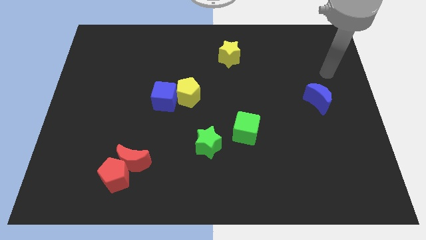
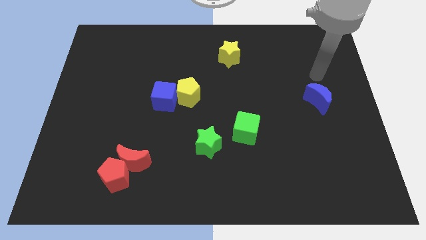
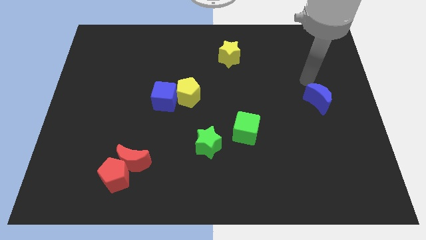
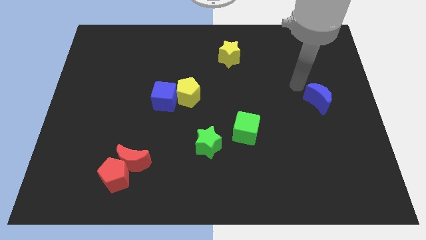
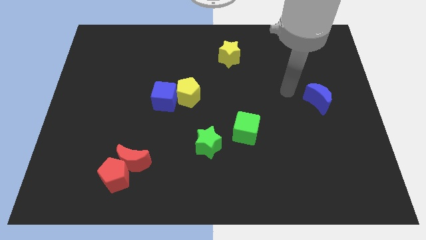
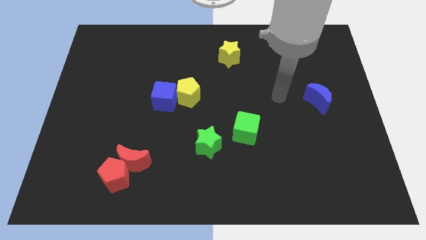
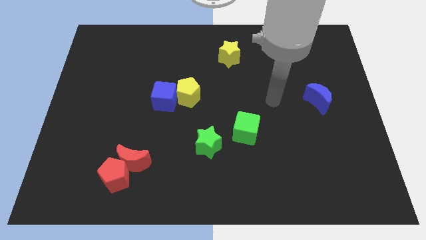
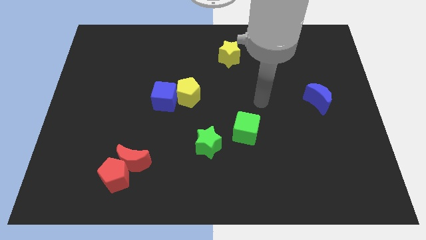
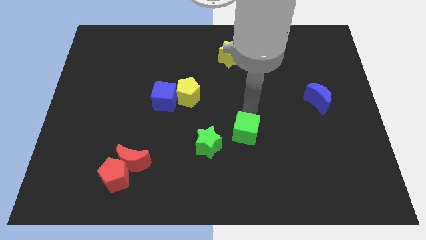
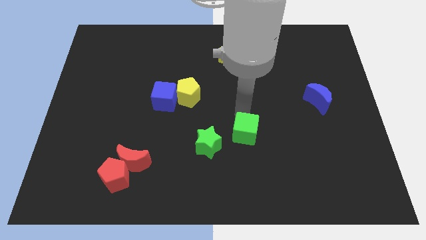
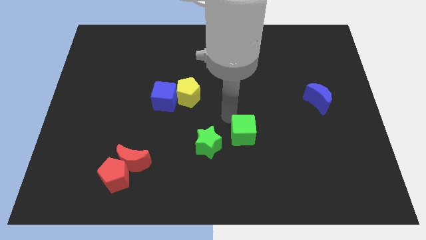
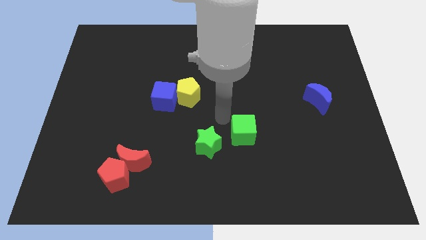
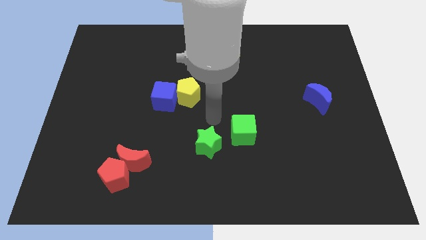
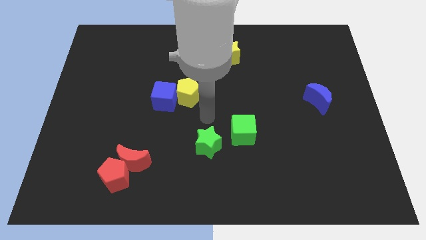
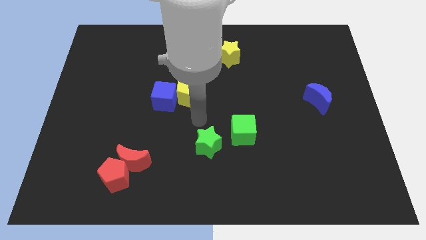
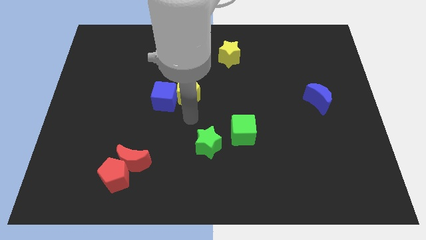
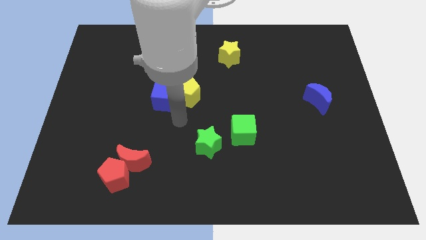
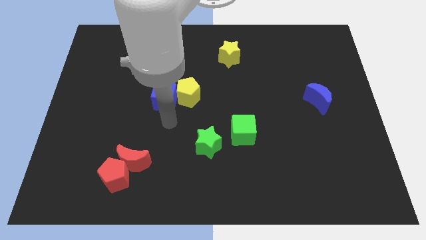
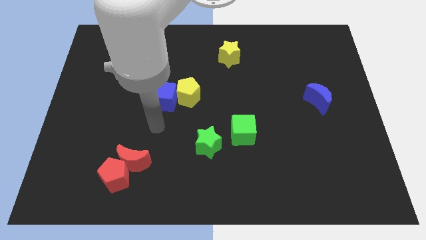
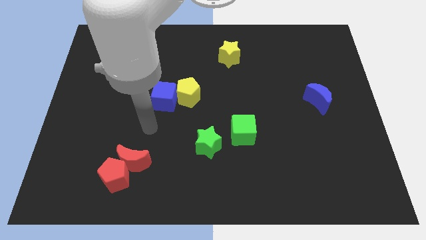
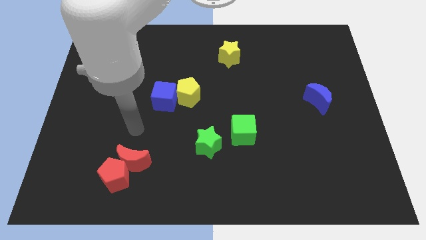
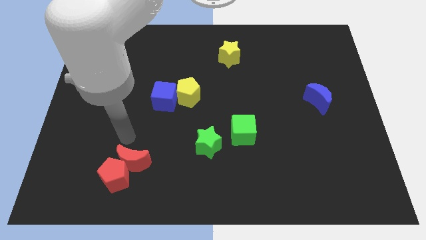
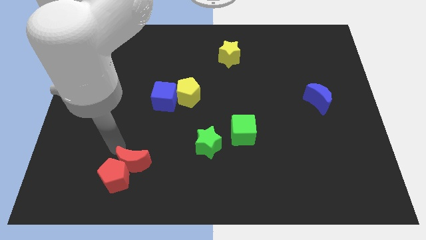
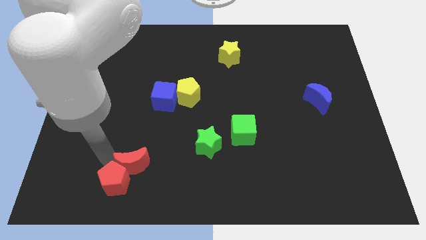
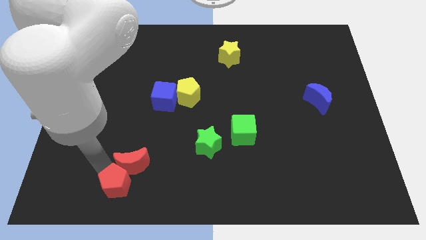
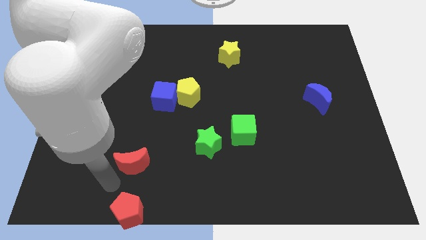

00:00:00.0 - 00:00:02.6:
separate the red moon from the red pentagon

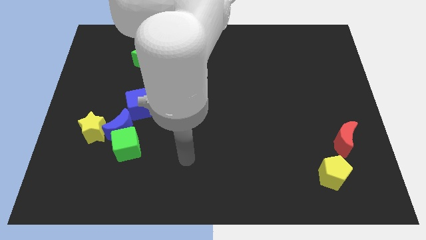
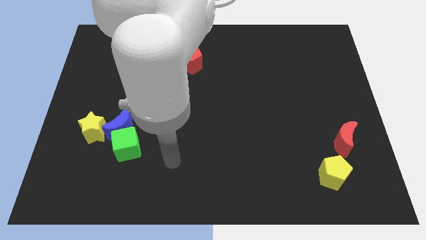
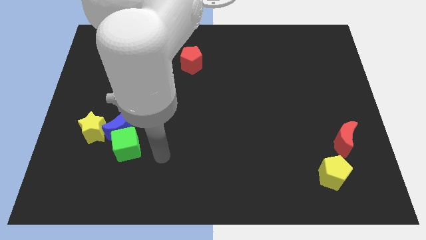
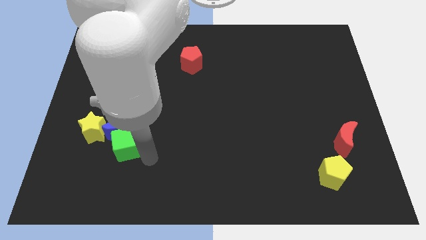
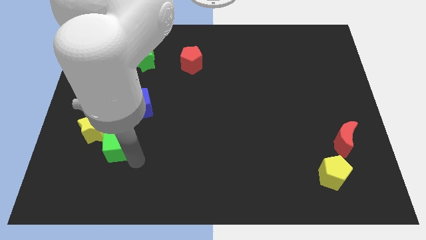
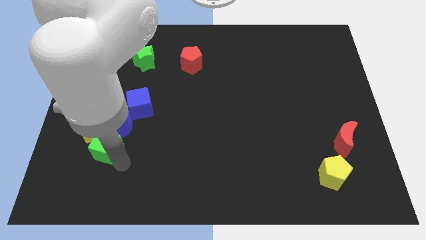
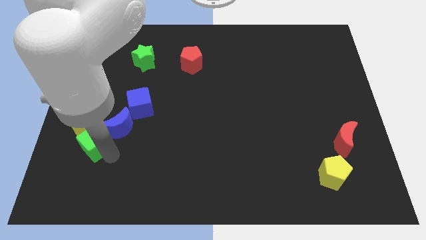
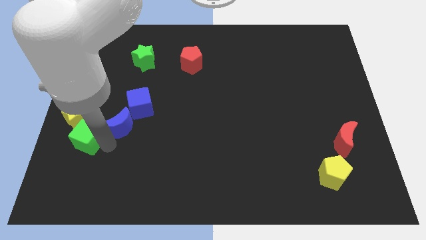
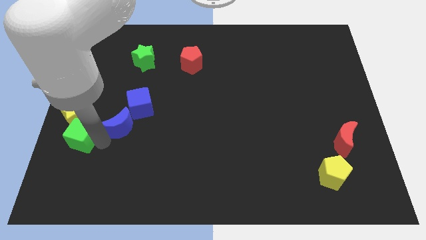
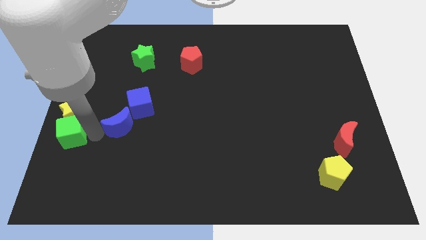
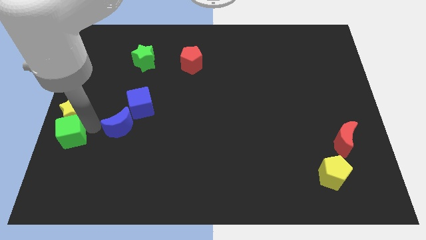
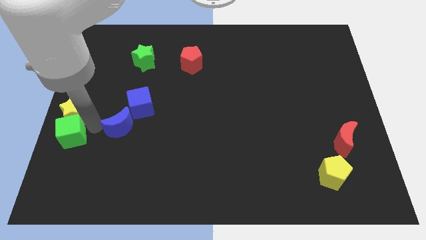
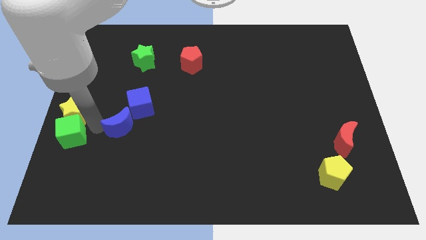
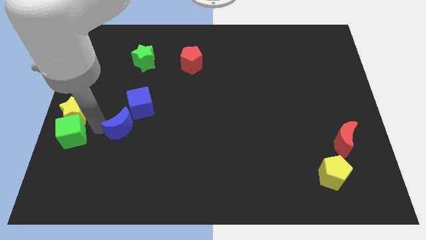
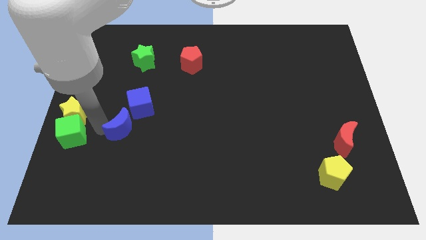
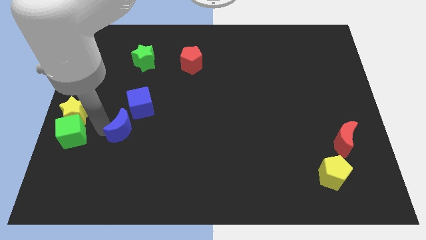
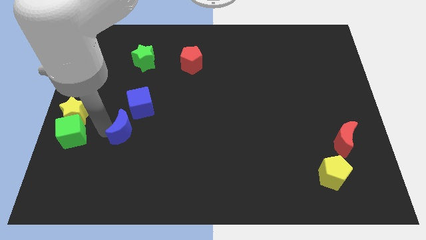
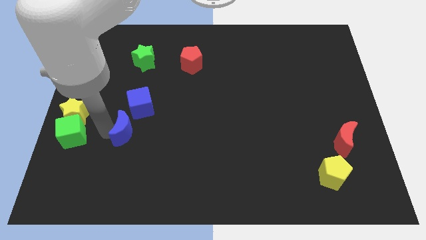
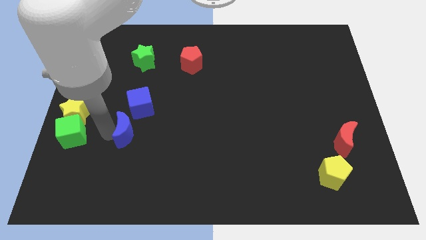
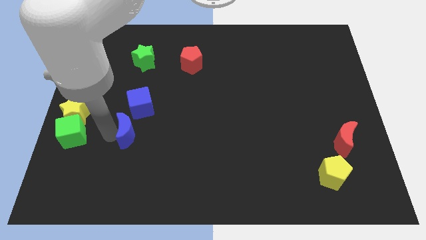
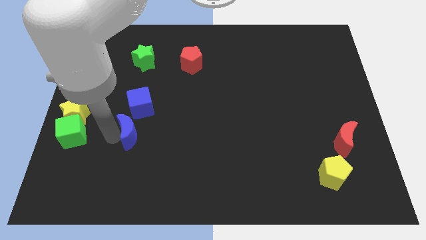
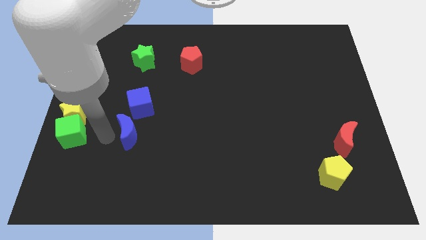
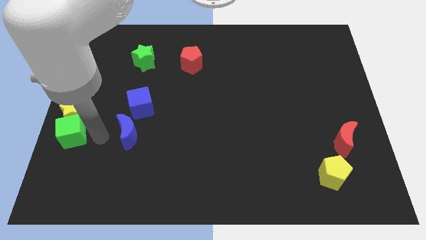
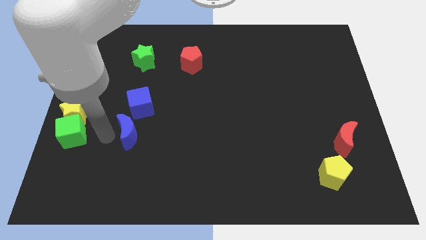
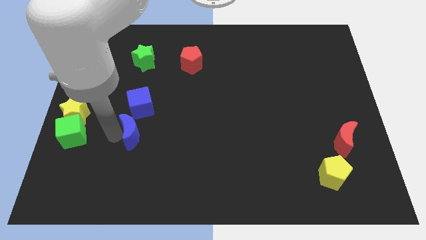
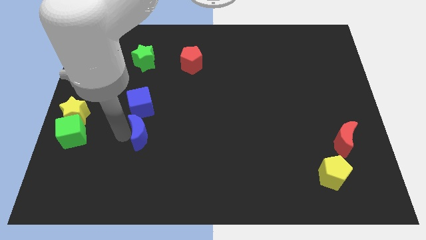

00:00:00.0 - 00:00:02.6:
move the blue moon away from the group

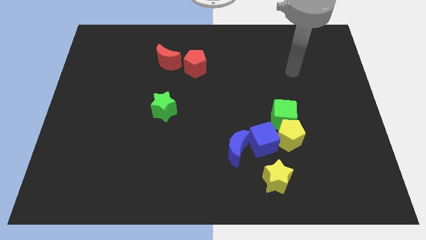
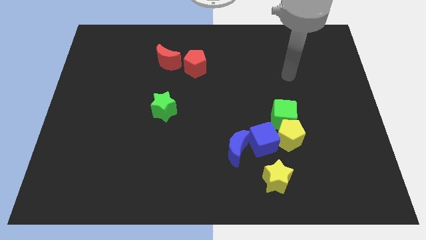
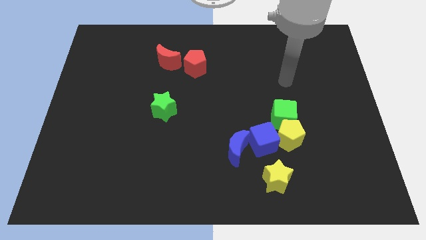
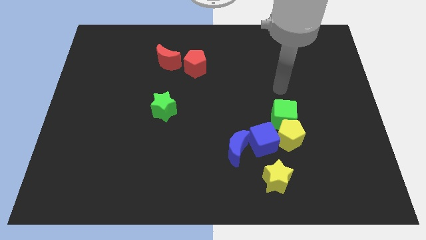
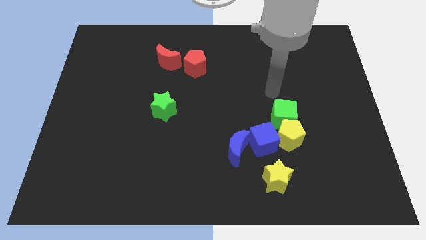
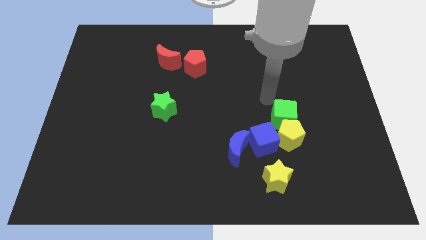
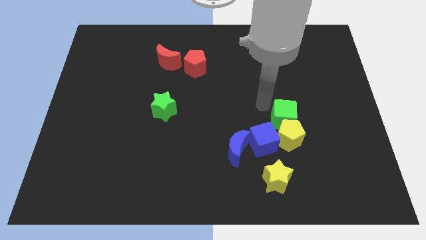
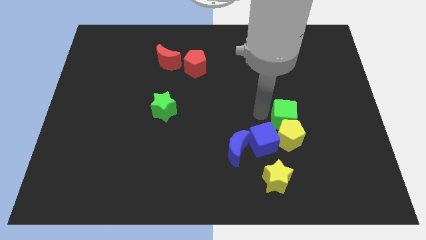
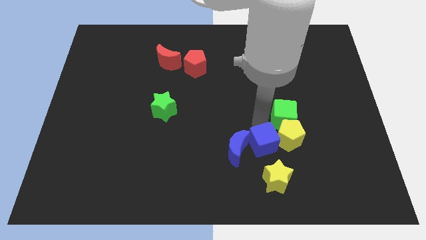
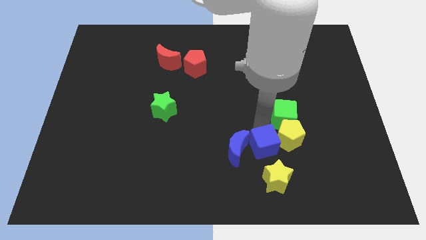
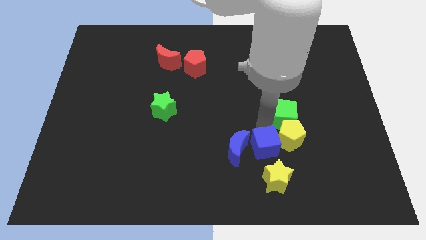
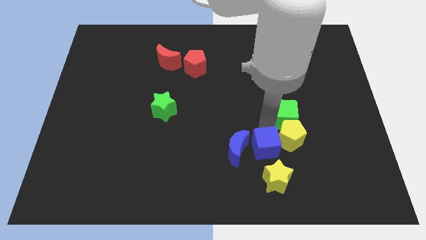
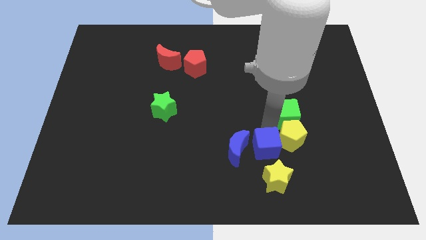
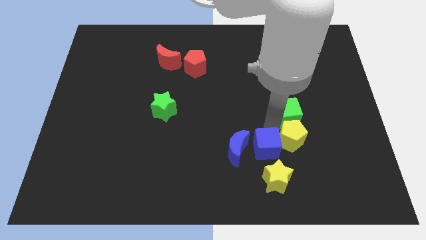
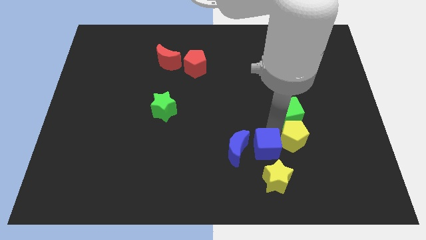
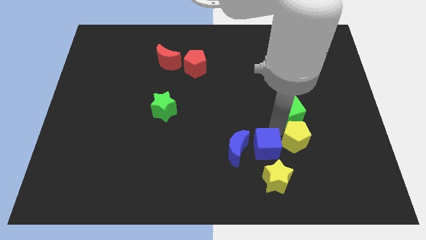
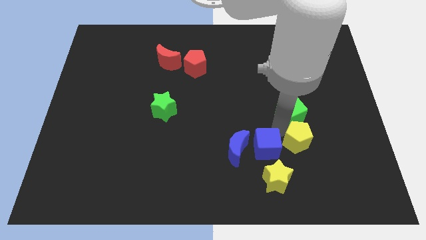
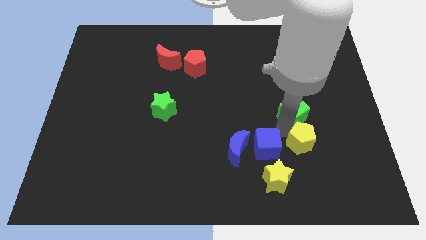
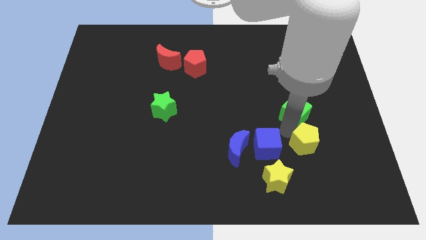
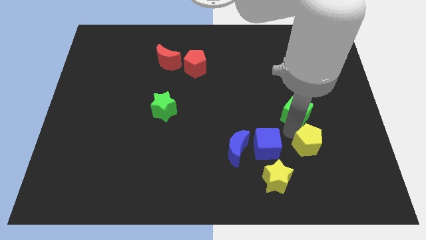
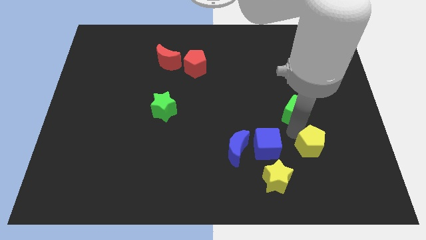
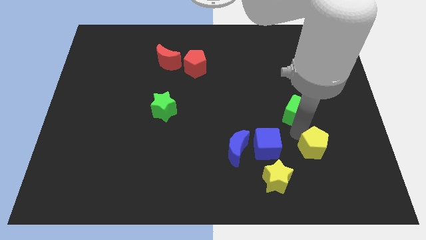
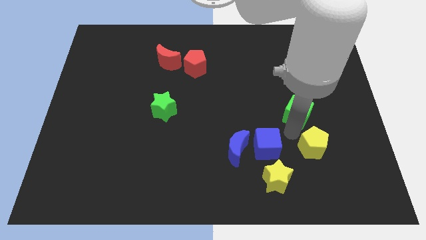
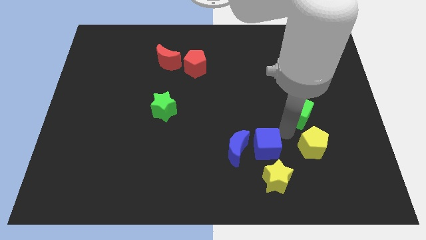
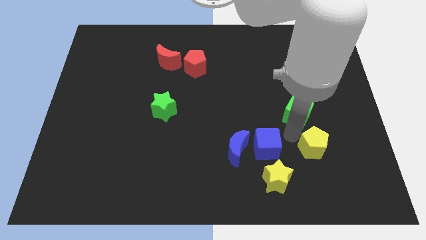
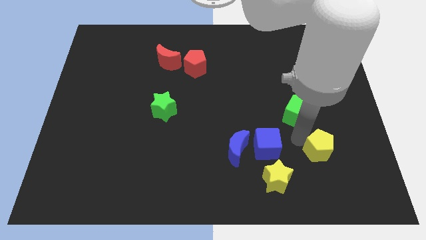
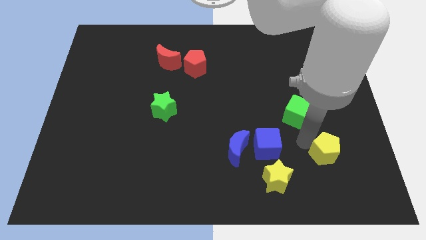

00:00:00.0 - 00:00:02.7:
pull the yellow pentagon apart from the green cube and blue cube

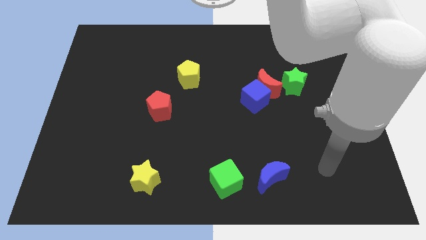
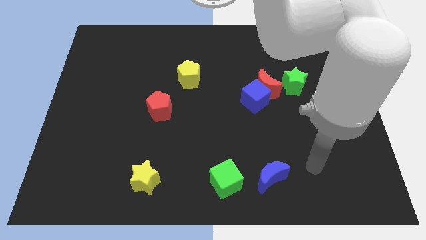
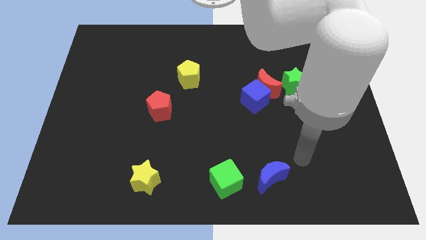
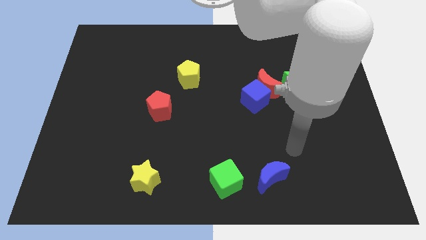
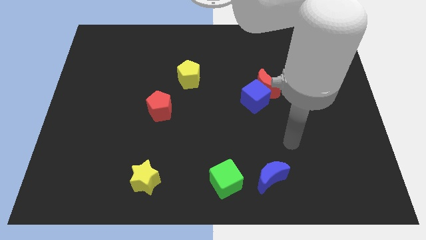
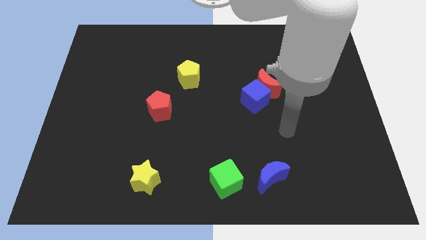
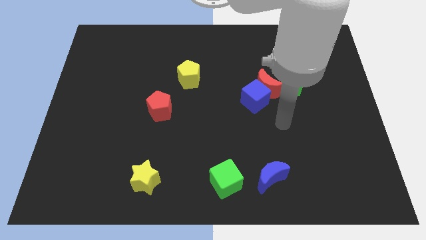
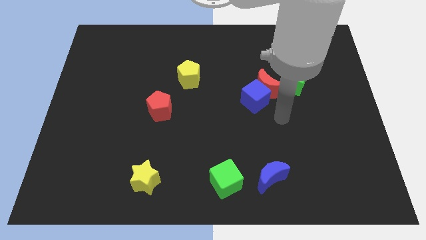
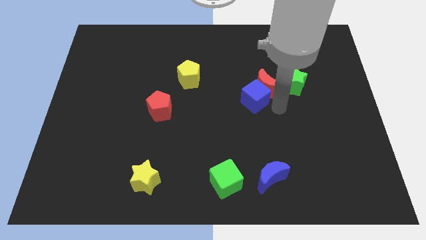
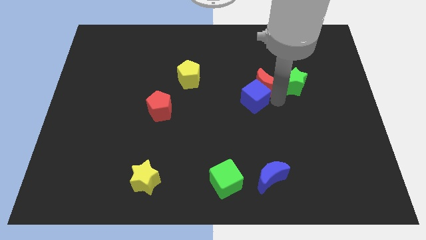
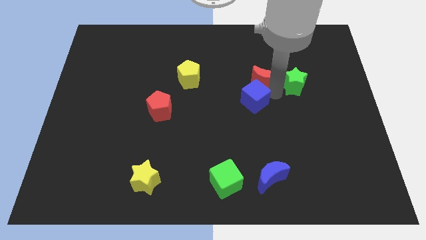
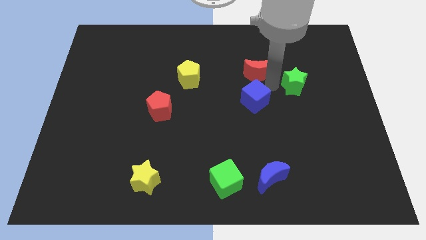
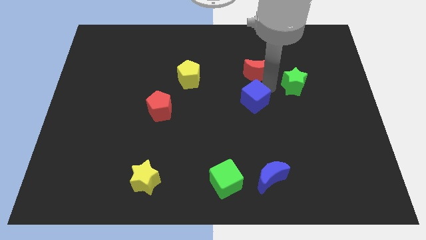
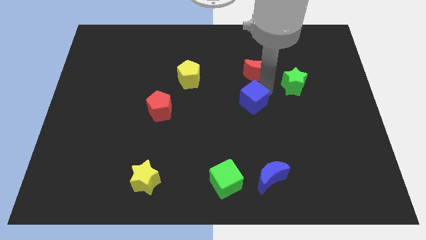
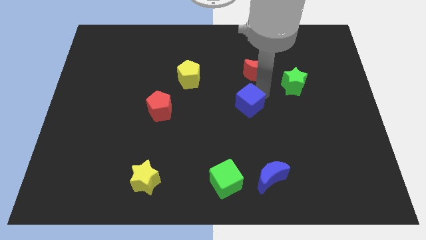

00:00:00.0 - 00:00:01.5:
move the blue cube away from the red moon
